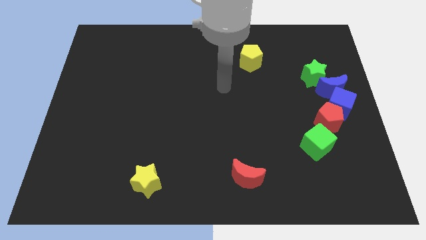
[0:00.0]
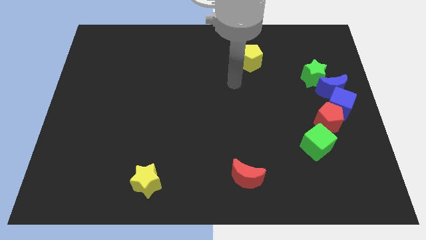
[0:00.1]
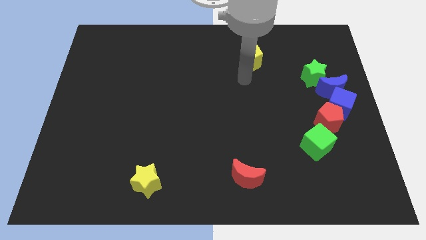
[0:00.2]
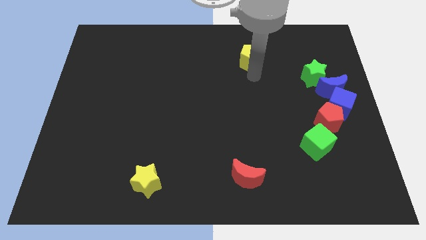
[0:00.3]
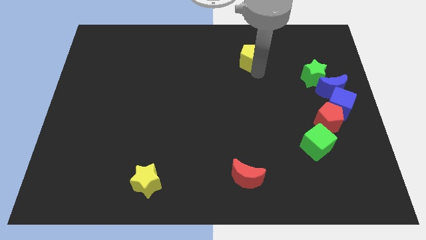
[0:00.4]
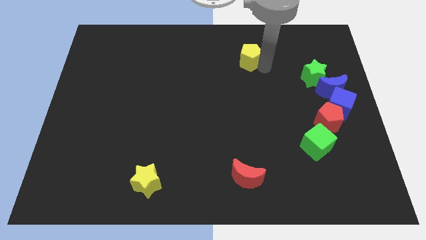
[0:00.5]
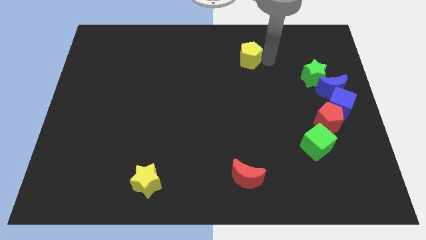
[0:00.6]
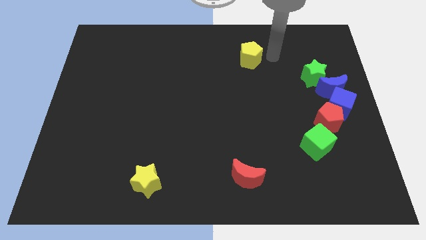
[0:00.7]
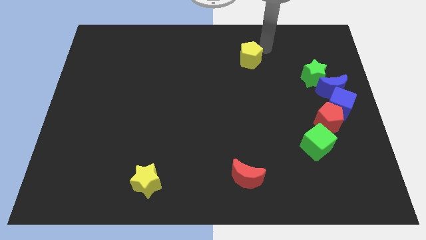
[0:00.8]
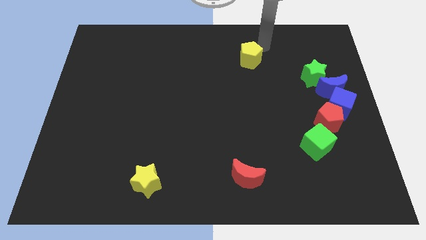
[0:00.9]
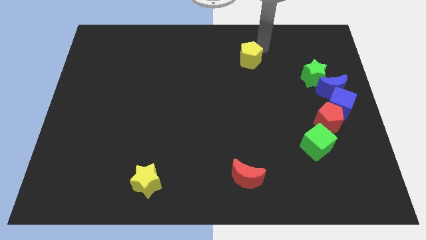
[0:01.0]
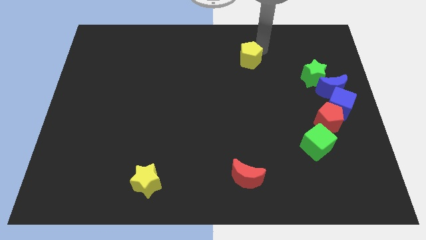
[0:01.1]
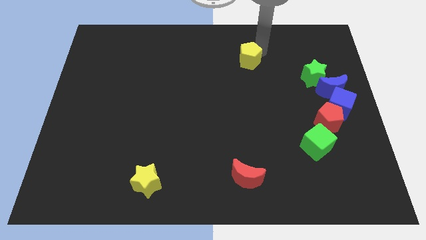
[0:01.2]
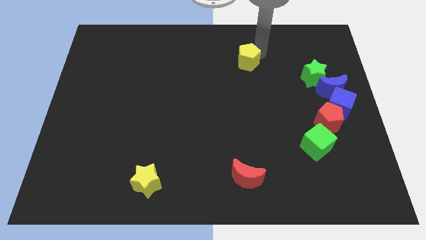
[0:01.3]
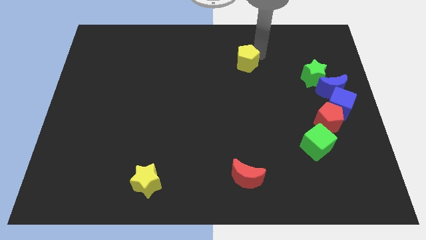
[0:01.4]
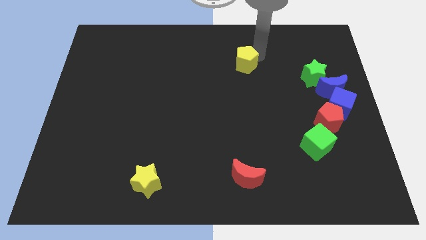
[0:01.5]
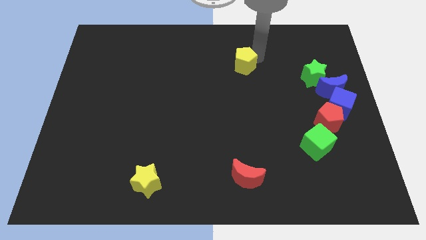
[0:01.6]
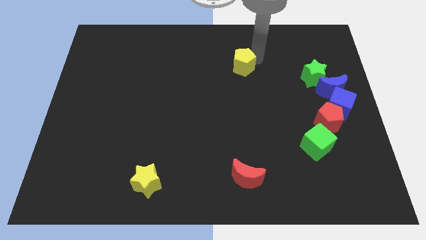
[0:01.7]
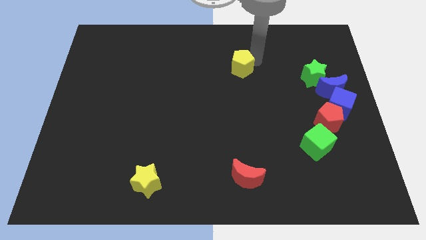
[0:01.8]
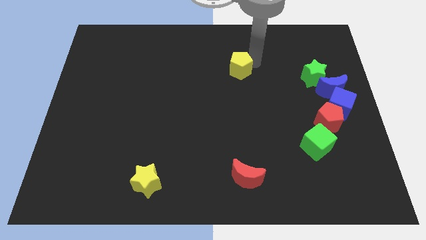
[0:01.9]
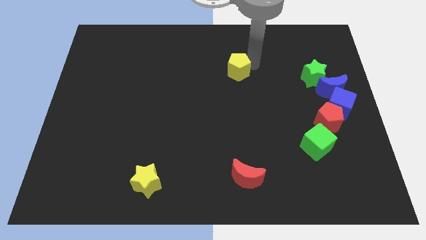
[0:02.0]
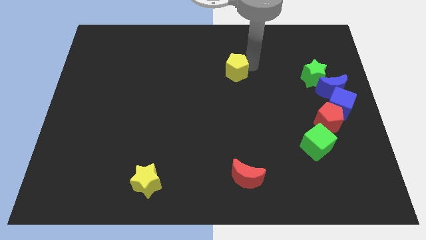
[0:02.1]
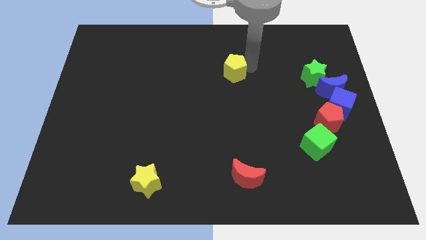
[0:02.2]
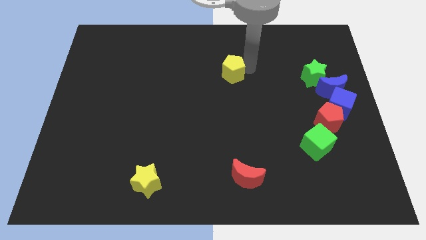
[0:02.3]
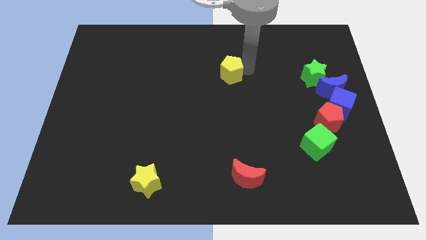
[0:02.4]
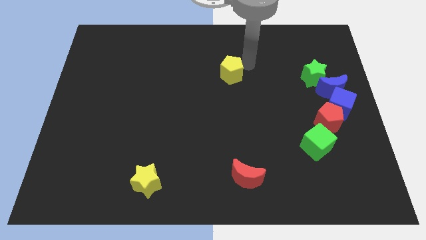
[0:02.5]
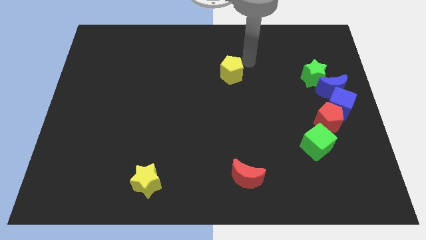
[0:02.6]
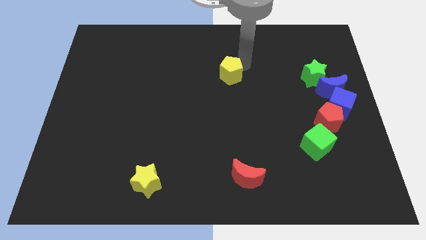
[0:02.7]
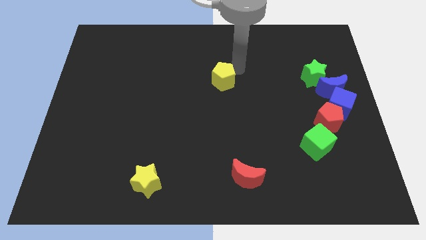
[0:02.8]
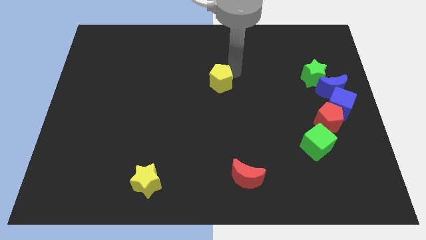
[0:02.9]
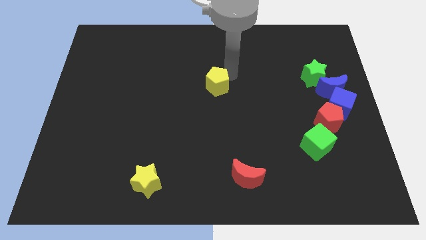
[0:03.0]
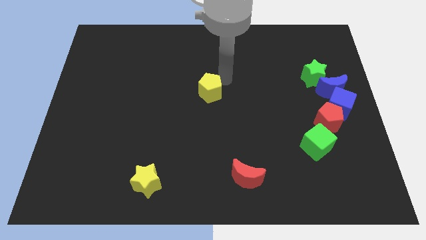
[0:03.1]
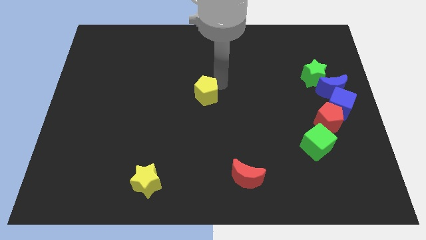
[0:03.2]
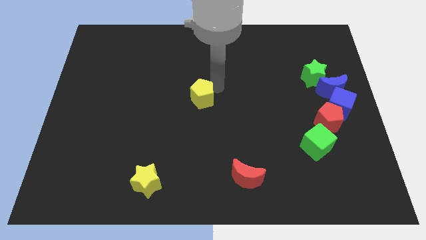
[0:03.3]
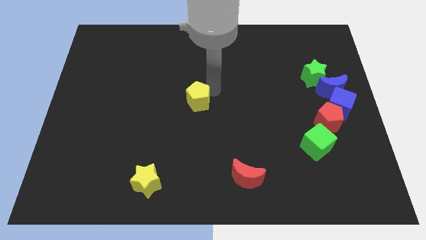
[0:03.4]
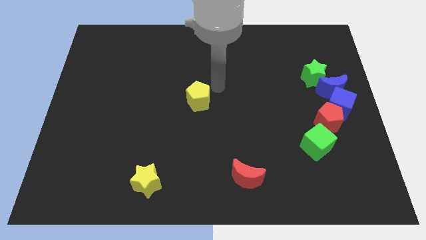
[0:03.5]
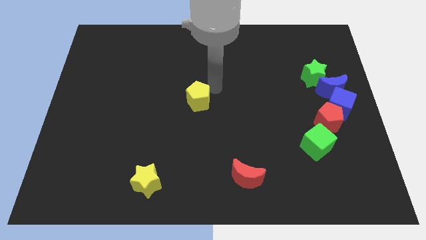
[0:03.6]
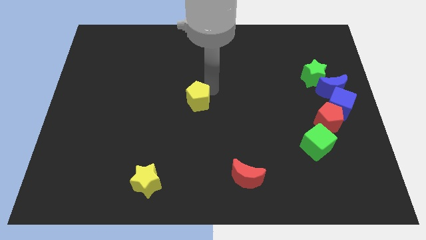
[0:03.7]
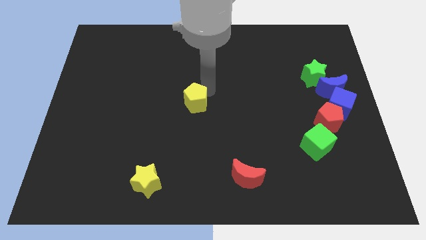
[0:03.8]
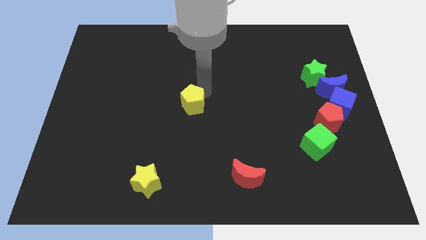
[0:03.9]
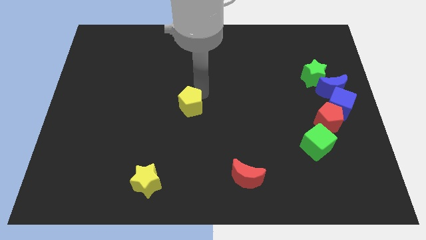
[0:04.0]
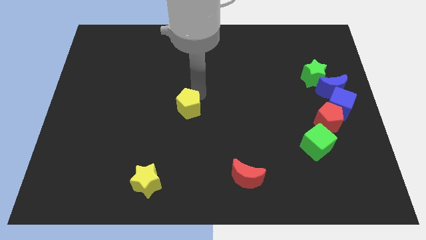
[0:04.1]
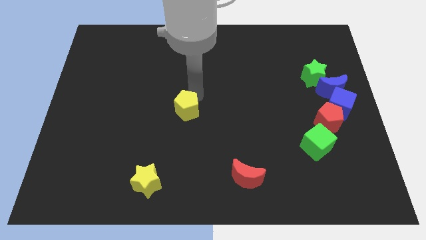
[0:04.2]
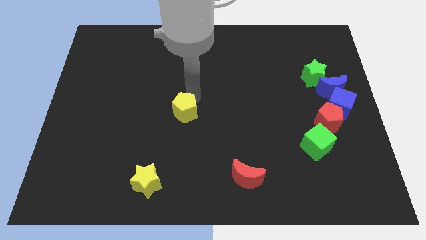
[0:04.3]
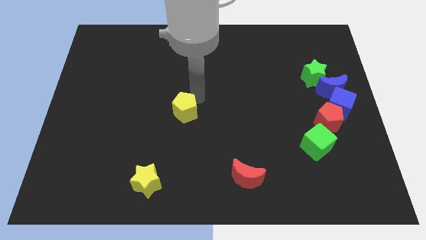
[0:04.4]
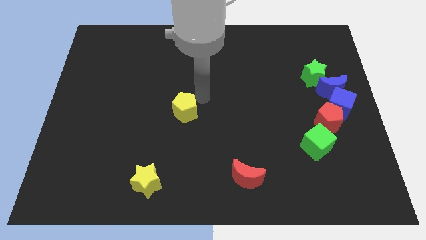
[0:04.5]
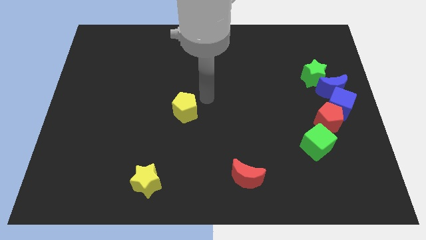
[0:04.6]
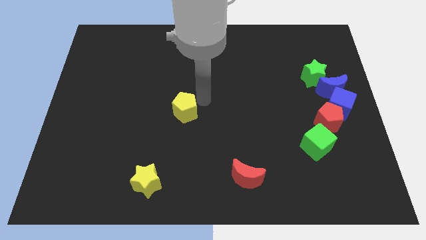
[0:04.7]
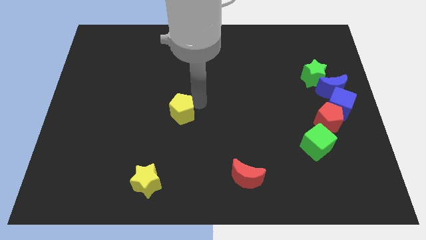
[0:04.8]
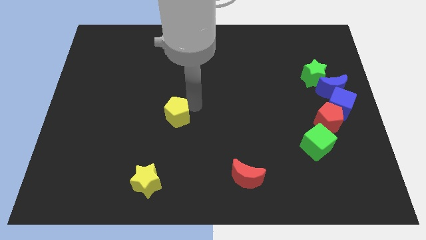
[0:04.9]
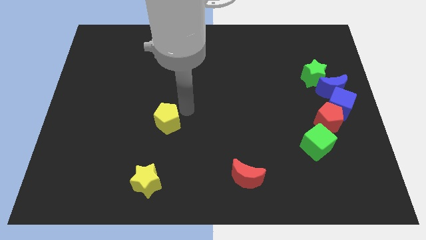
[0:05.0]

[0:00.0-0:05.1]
slide the yellow pentagon above the yellow star

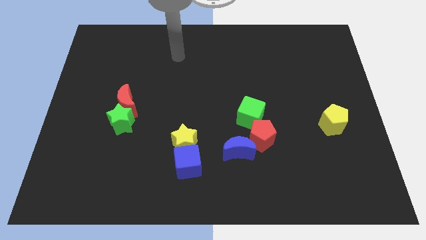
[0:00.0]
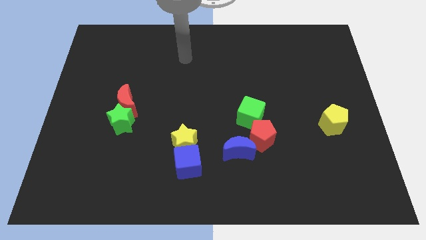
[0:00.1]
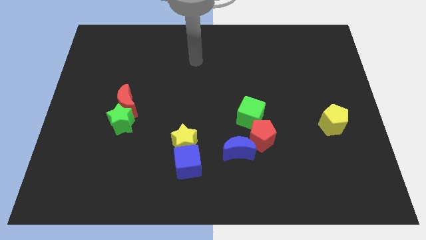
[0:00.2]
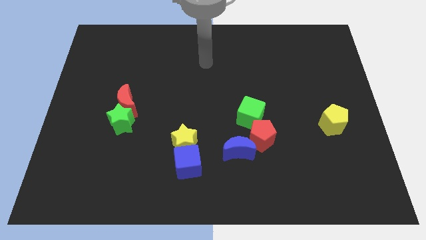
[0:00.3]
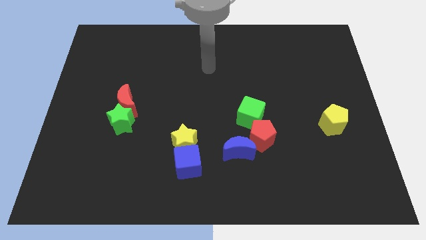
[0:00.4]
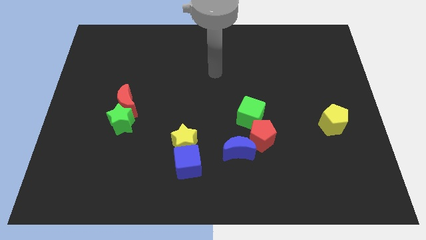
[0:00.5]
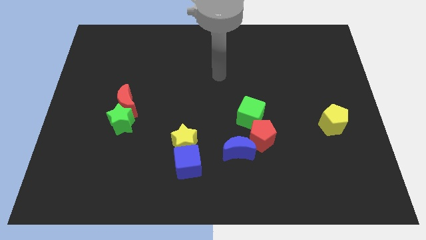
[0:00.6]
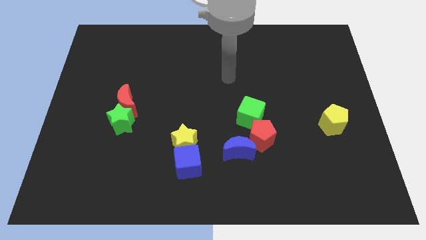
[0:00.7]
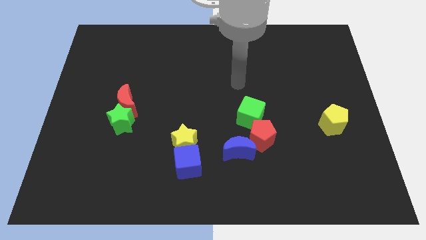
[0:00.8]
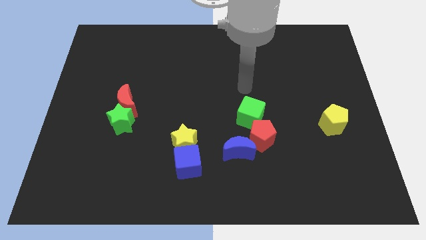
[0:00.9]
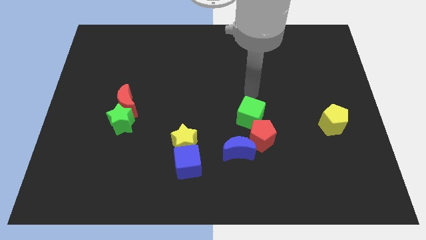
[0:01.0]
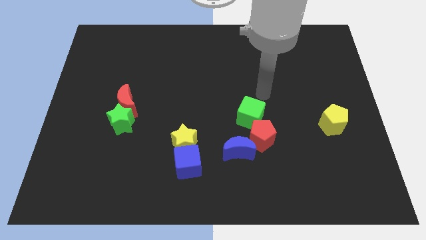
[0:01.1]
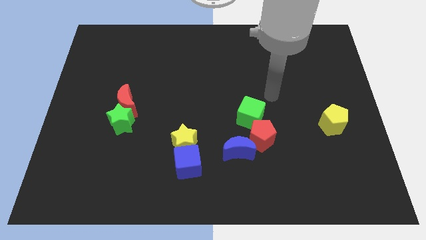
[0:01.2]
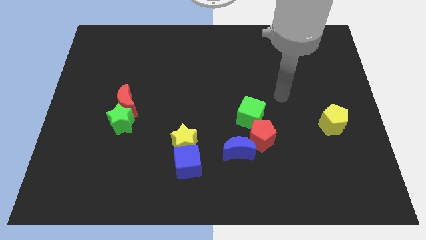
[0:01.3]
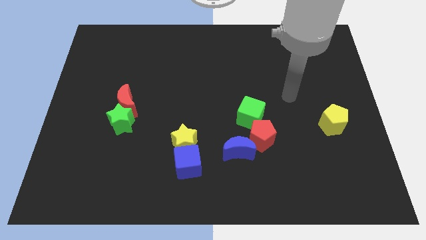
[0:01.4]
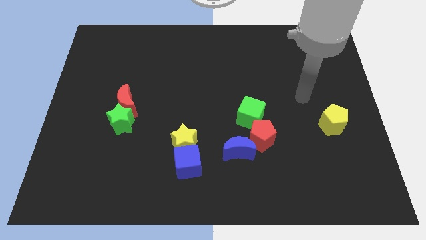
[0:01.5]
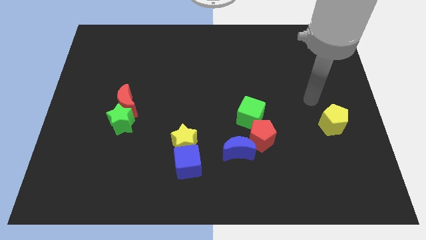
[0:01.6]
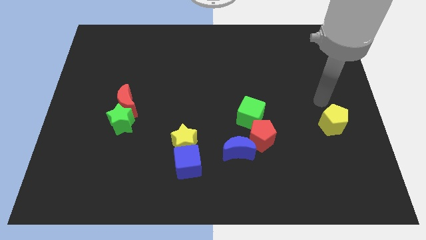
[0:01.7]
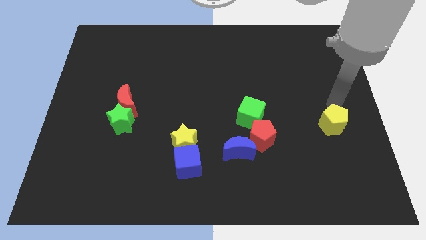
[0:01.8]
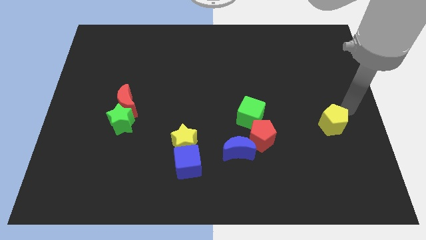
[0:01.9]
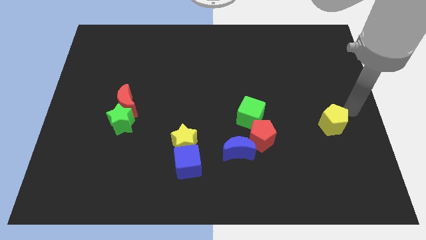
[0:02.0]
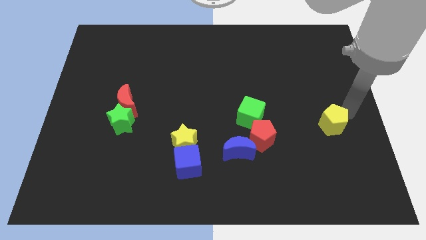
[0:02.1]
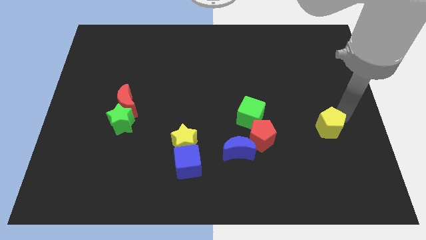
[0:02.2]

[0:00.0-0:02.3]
push the yellow pentagon just right of the red pentagon

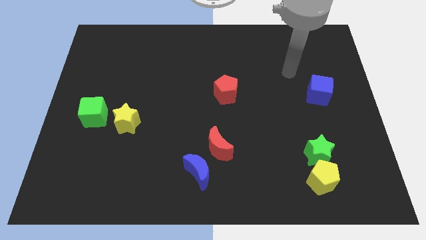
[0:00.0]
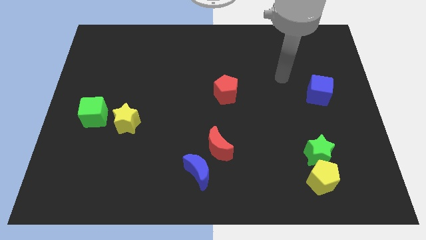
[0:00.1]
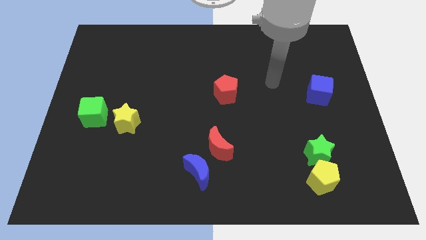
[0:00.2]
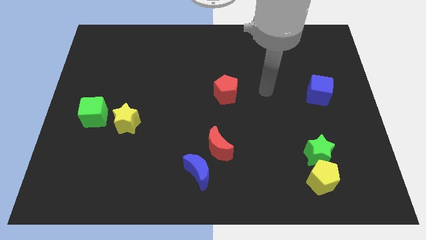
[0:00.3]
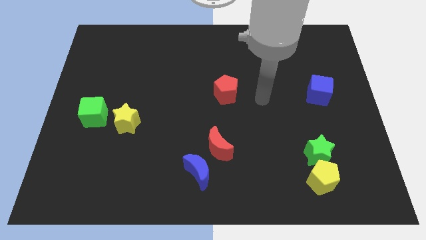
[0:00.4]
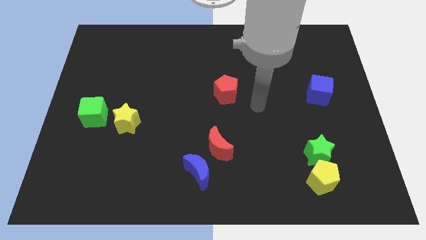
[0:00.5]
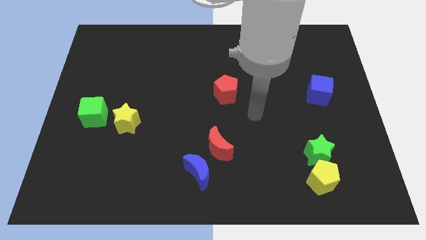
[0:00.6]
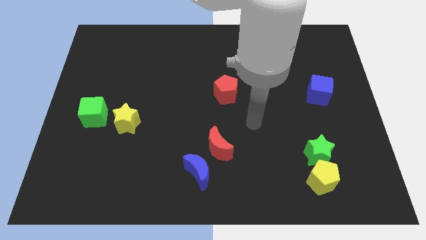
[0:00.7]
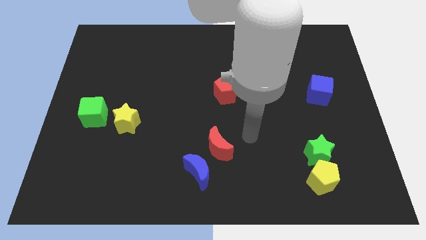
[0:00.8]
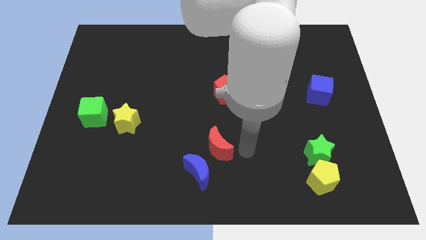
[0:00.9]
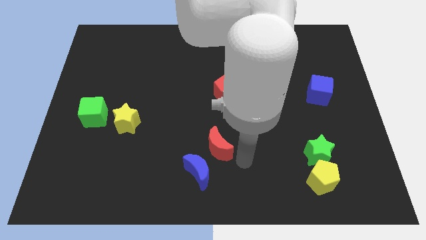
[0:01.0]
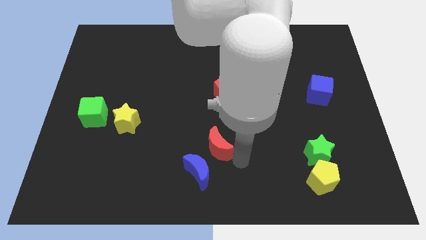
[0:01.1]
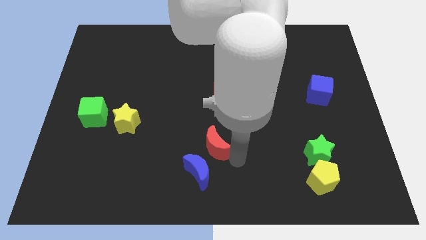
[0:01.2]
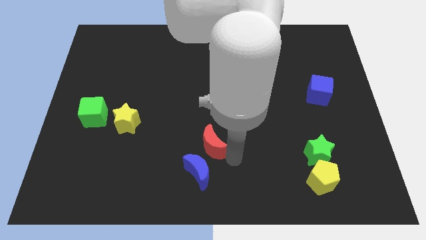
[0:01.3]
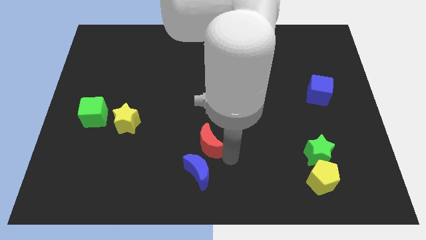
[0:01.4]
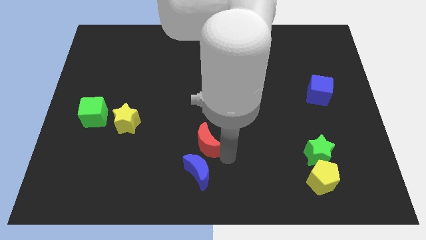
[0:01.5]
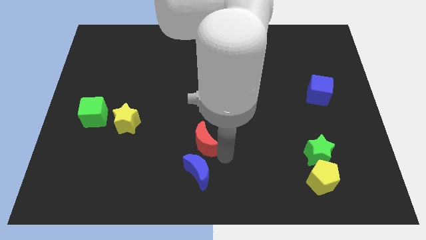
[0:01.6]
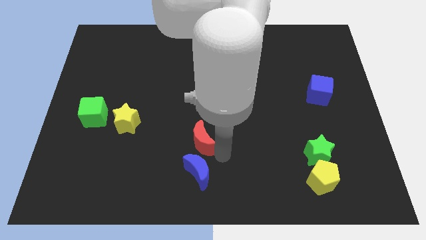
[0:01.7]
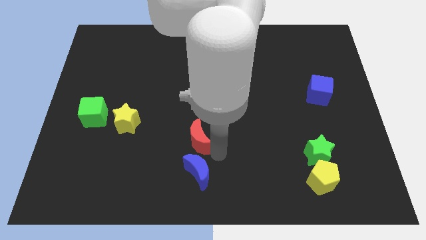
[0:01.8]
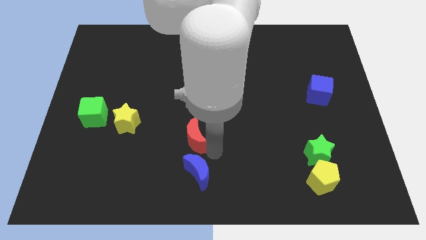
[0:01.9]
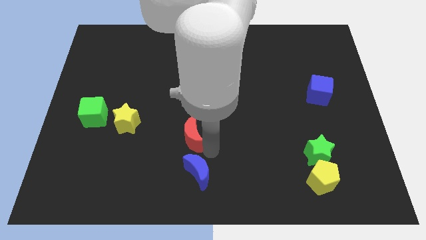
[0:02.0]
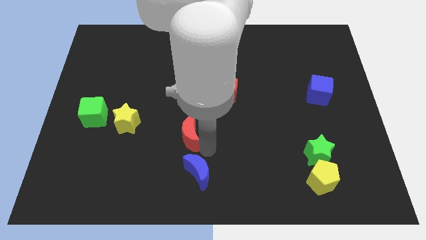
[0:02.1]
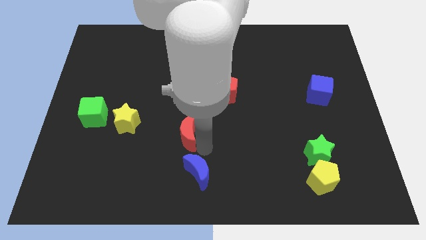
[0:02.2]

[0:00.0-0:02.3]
push the red moon just right of the yellow star
